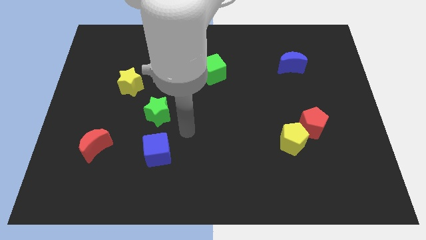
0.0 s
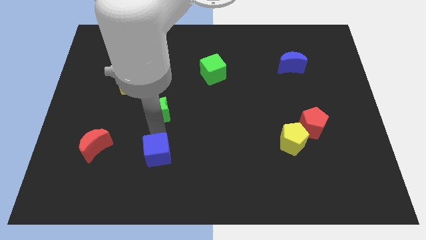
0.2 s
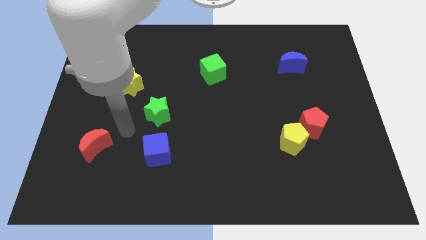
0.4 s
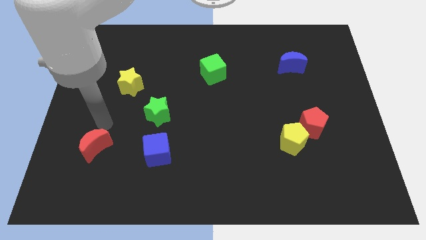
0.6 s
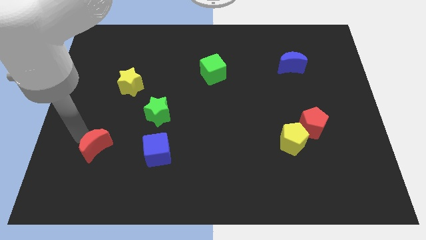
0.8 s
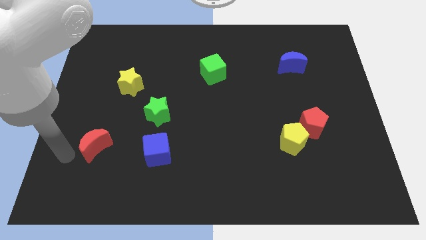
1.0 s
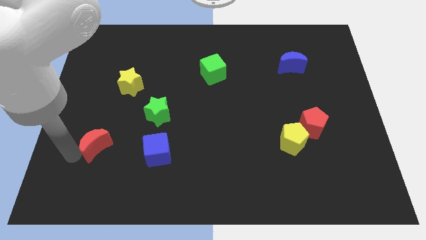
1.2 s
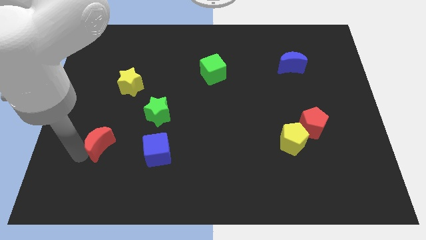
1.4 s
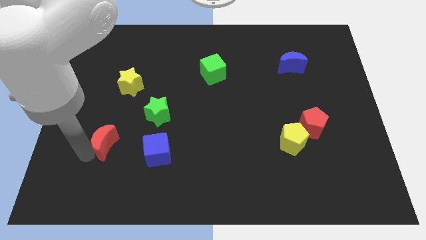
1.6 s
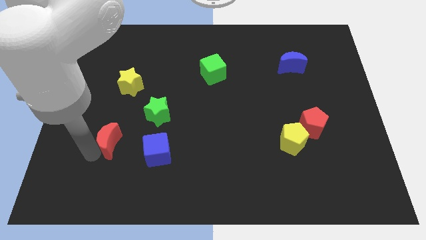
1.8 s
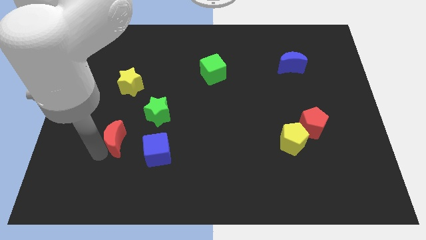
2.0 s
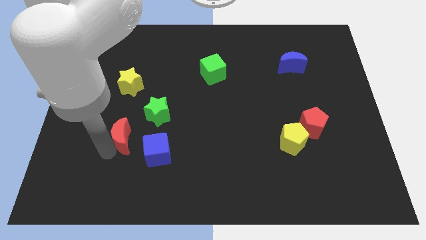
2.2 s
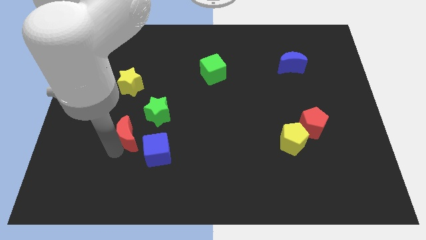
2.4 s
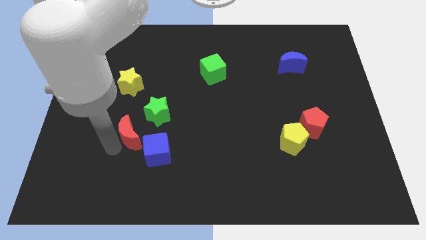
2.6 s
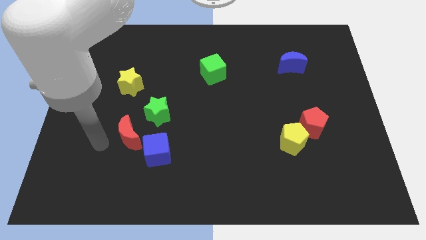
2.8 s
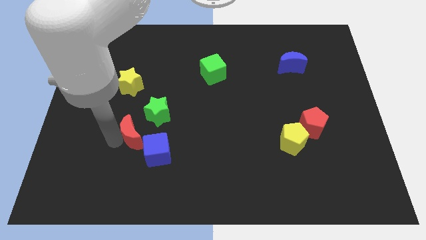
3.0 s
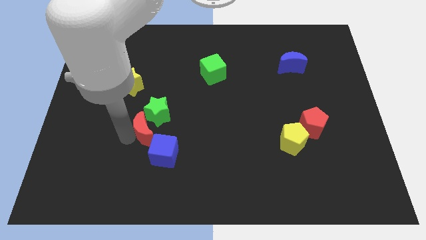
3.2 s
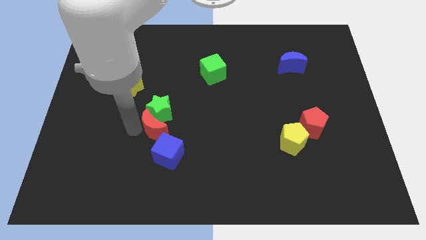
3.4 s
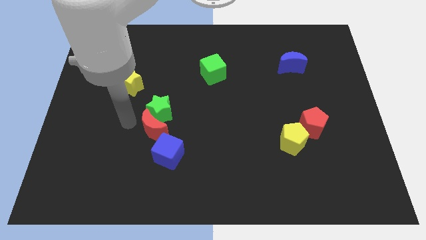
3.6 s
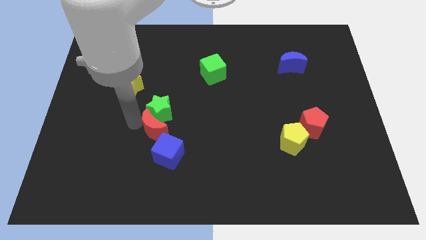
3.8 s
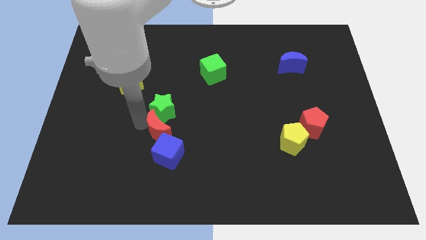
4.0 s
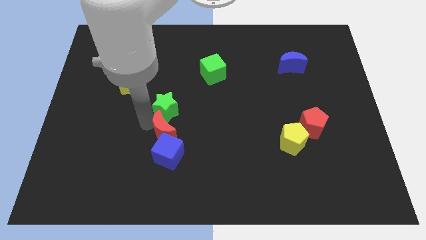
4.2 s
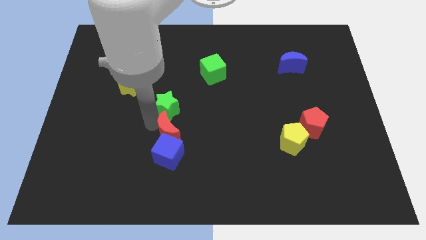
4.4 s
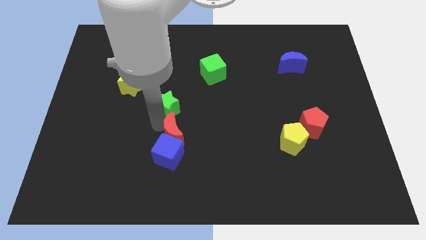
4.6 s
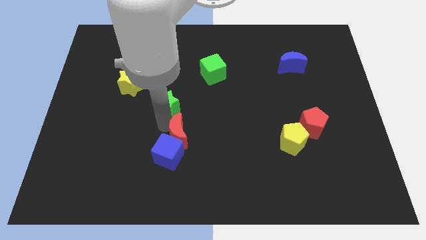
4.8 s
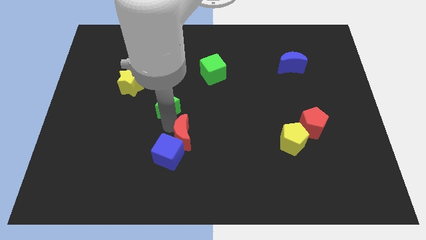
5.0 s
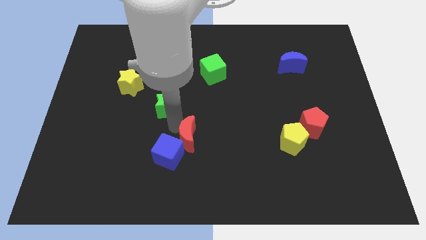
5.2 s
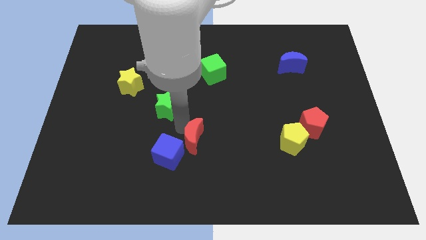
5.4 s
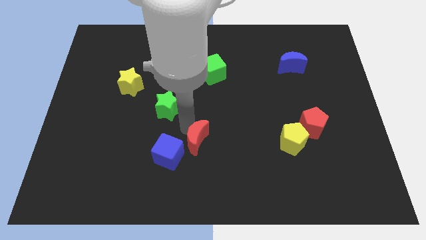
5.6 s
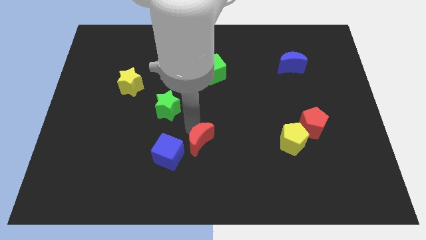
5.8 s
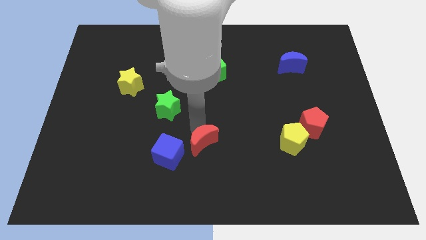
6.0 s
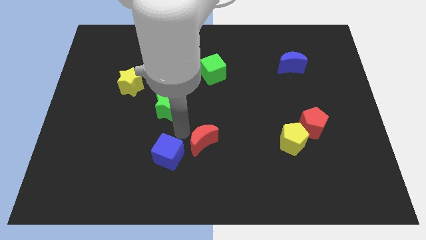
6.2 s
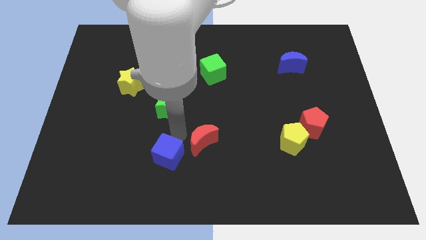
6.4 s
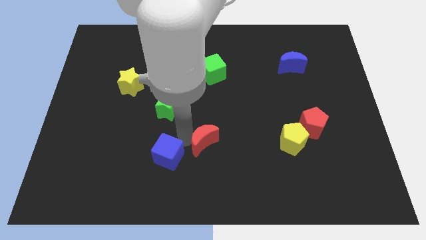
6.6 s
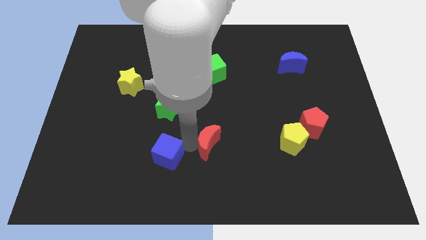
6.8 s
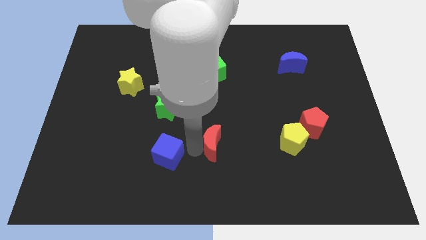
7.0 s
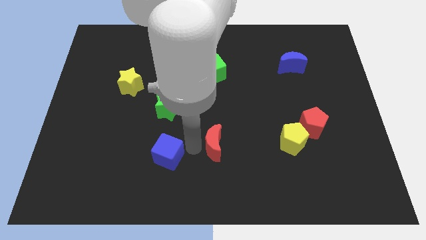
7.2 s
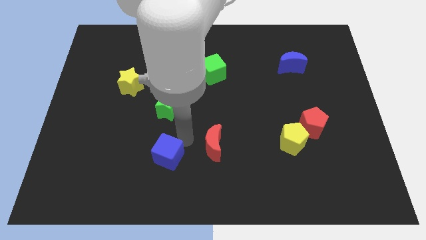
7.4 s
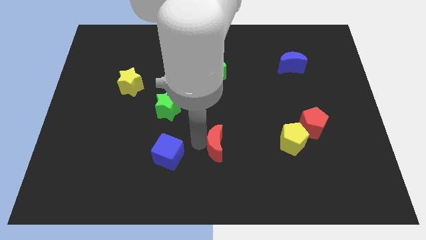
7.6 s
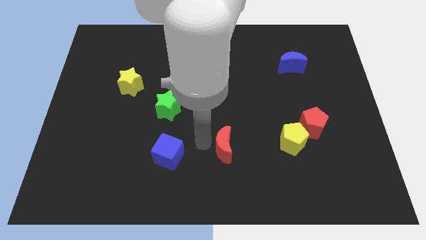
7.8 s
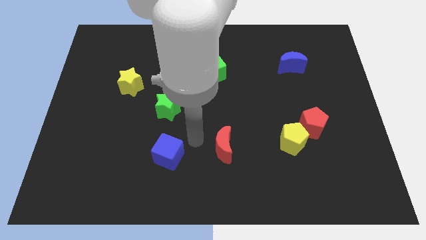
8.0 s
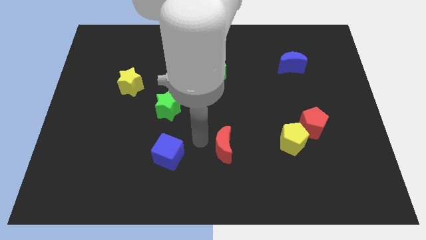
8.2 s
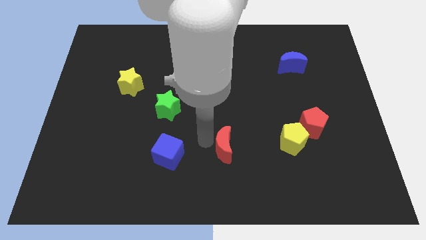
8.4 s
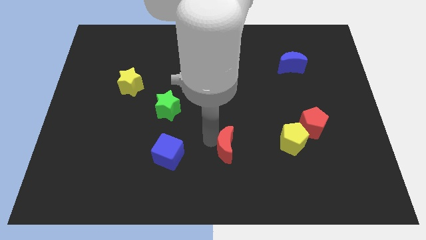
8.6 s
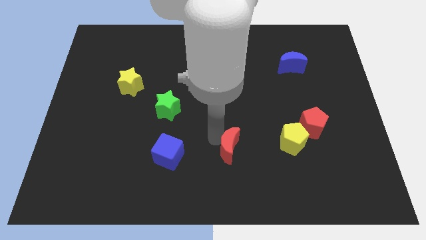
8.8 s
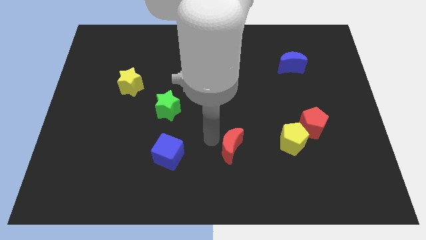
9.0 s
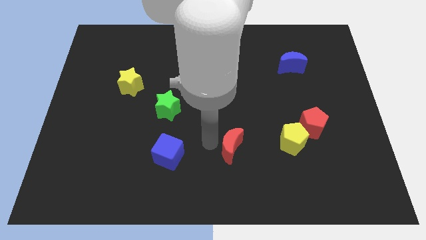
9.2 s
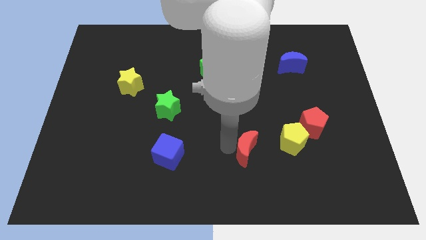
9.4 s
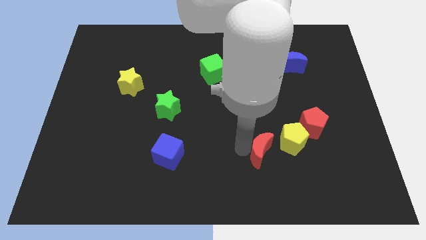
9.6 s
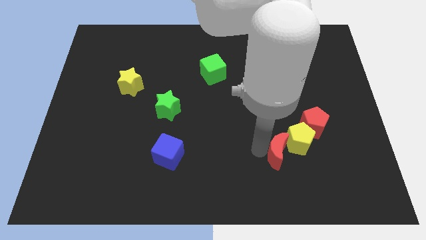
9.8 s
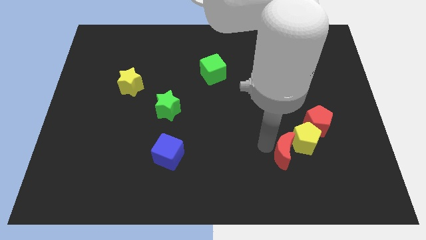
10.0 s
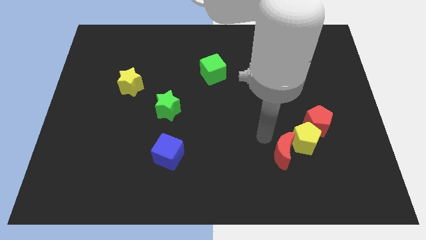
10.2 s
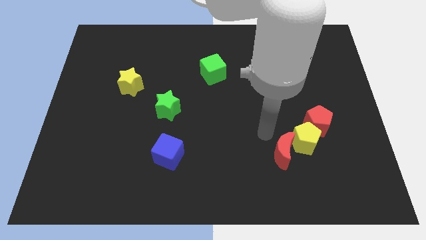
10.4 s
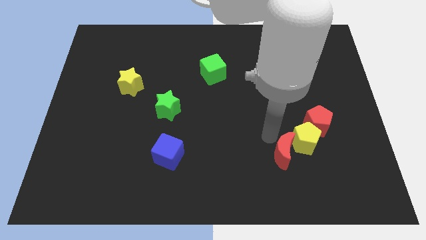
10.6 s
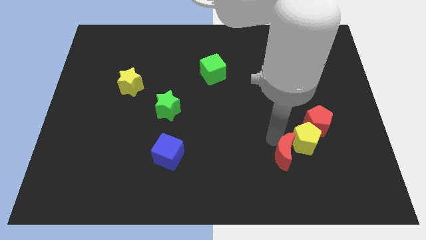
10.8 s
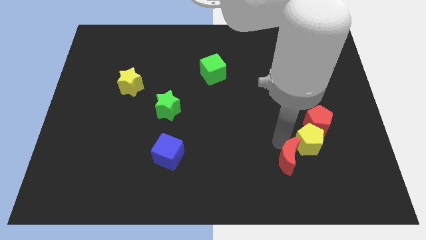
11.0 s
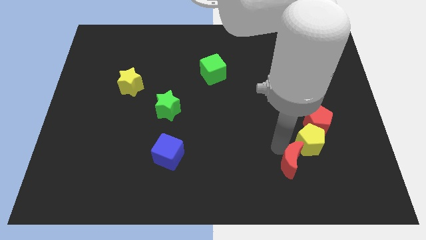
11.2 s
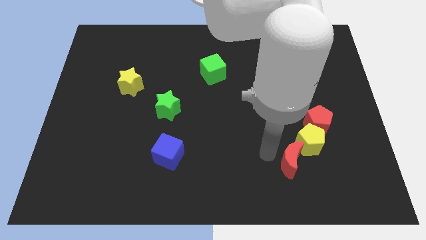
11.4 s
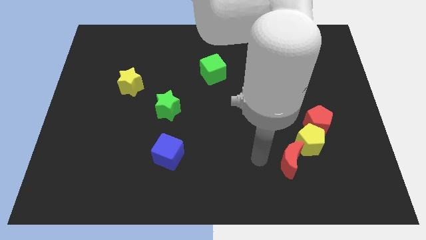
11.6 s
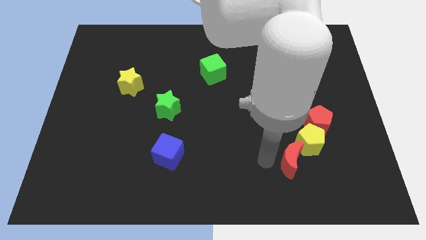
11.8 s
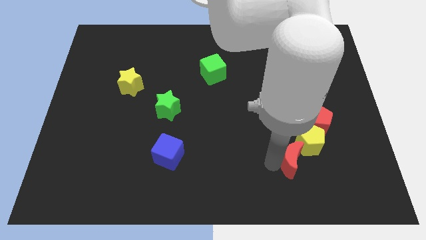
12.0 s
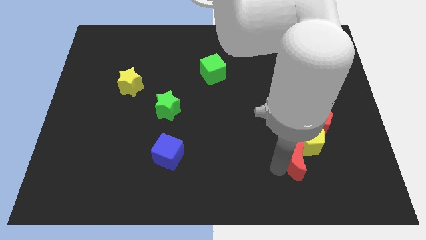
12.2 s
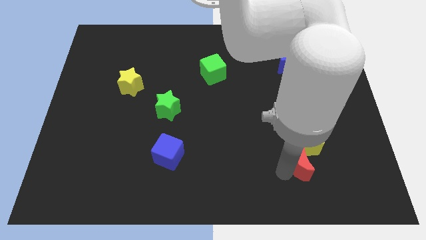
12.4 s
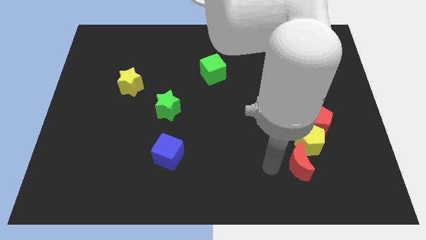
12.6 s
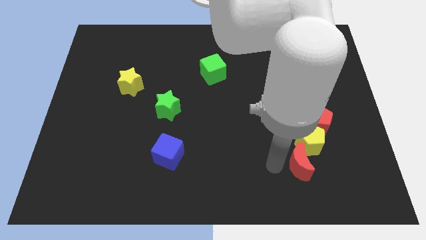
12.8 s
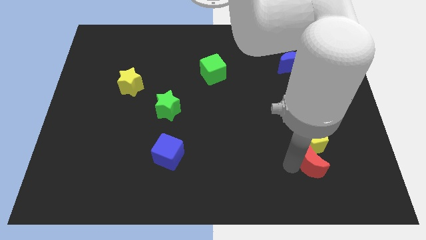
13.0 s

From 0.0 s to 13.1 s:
slide the red moon below the red pentagon

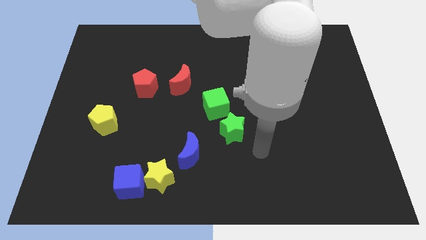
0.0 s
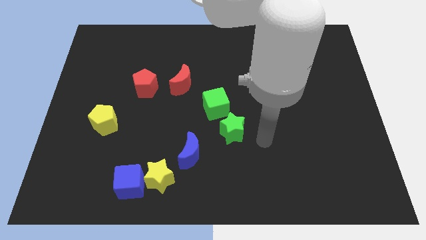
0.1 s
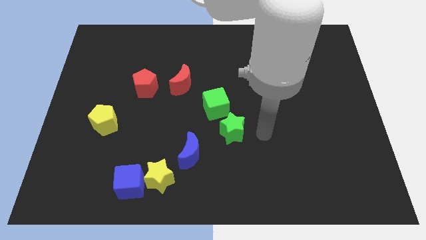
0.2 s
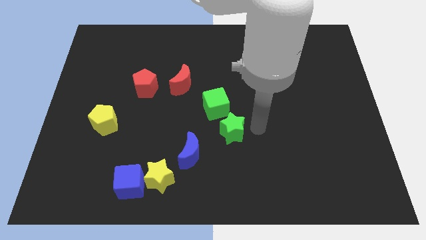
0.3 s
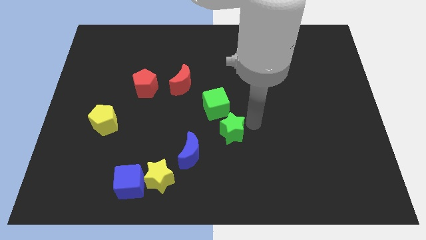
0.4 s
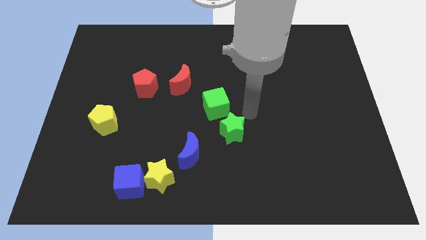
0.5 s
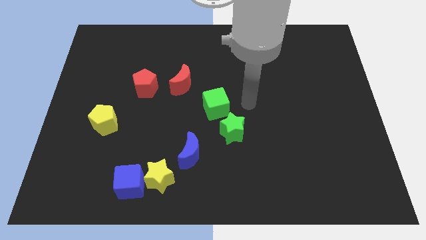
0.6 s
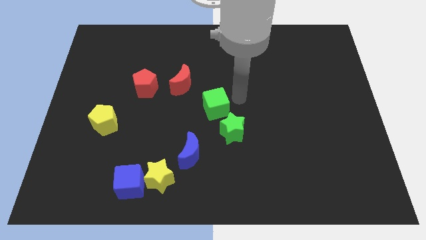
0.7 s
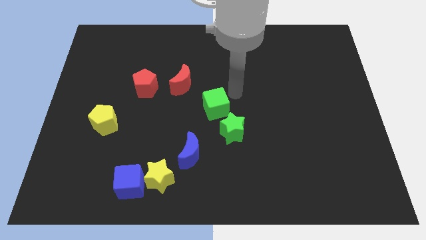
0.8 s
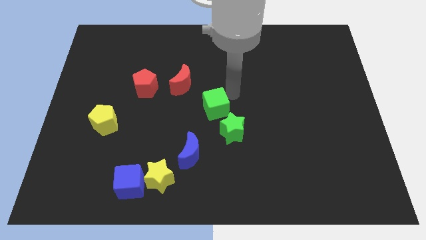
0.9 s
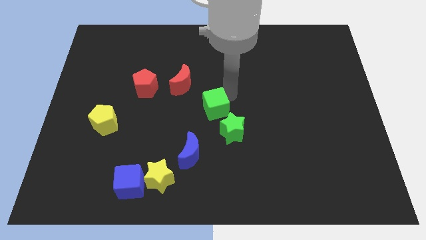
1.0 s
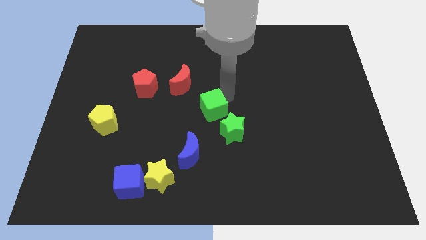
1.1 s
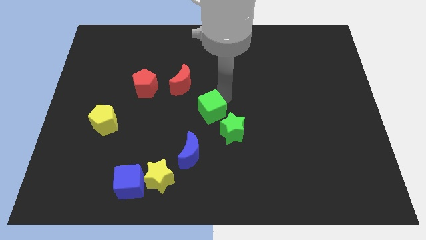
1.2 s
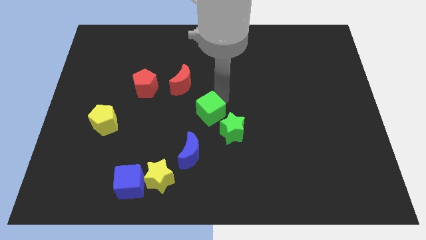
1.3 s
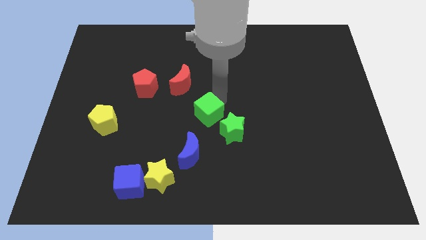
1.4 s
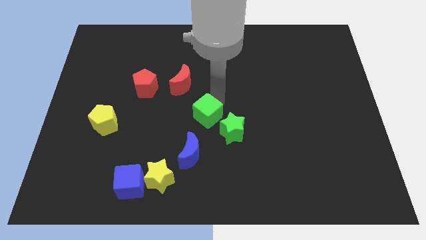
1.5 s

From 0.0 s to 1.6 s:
slide the green cube to the left side of the green star
